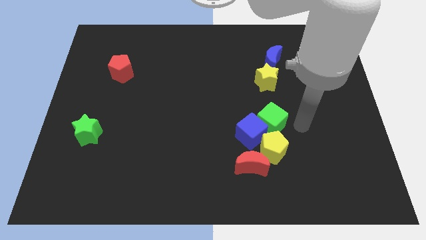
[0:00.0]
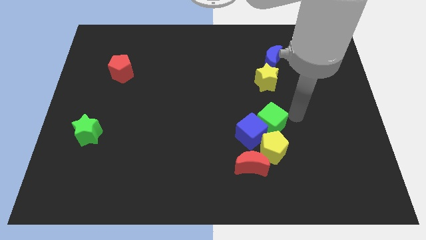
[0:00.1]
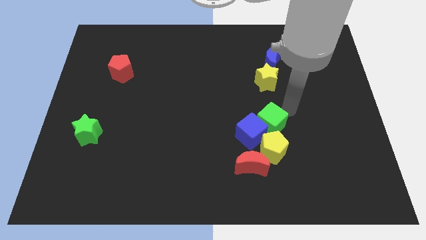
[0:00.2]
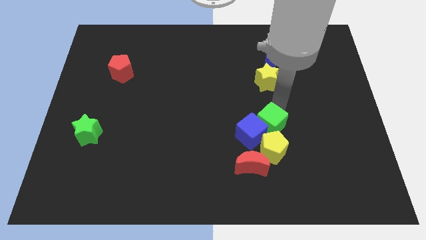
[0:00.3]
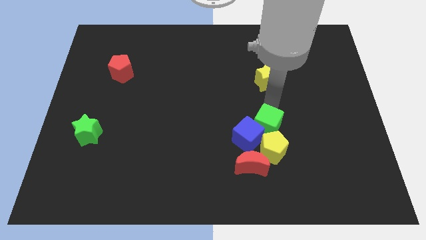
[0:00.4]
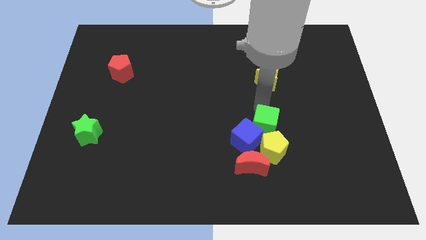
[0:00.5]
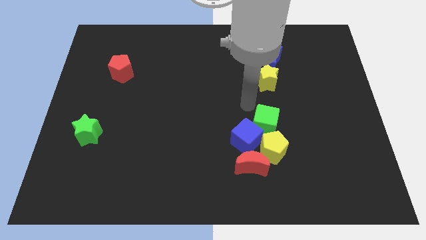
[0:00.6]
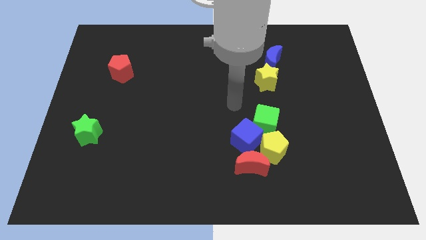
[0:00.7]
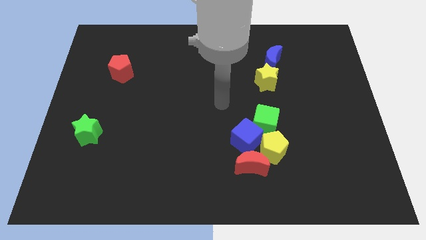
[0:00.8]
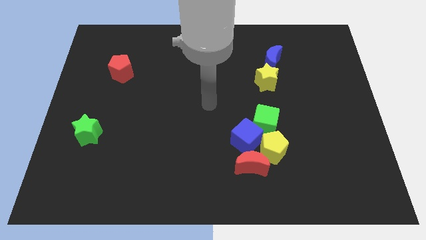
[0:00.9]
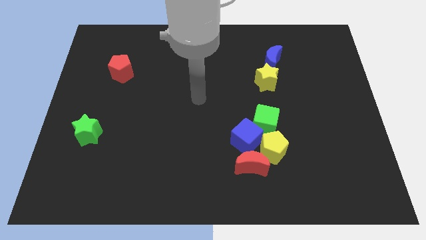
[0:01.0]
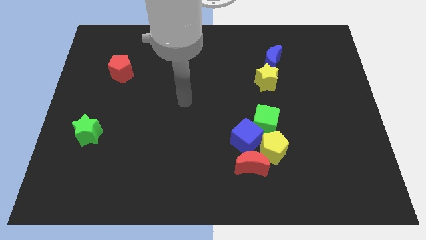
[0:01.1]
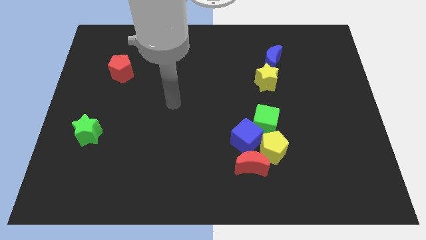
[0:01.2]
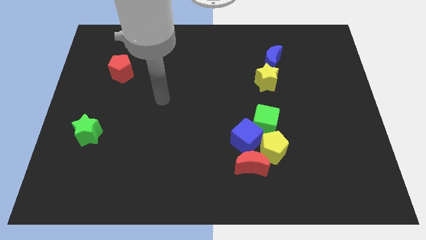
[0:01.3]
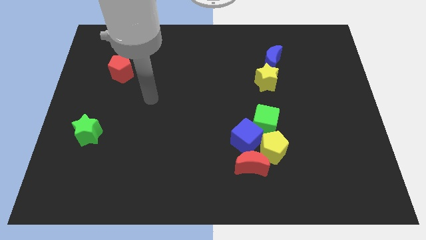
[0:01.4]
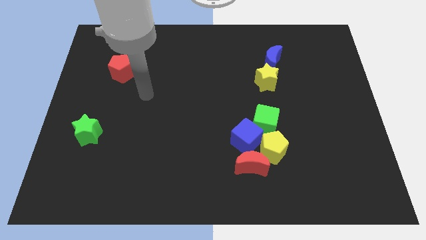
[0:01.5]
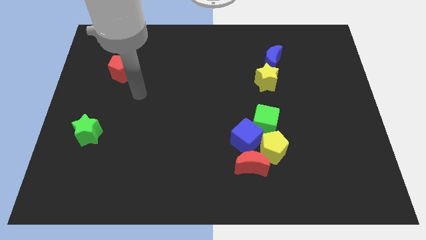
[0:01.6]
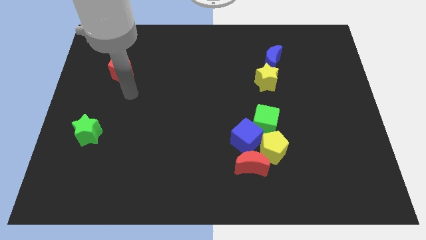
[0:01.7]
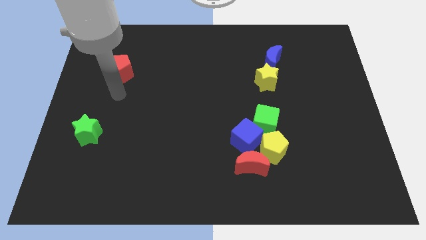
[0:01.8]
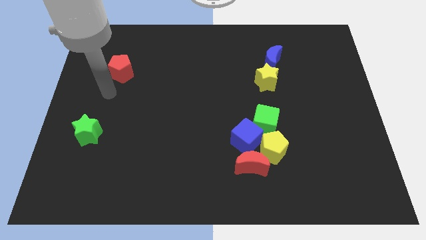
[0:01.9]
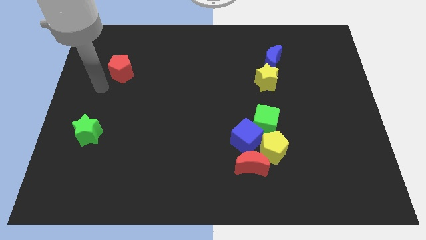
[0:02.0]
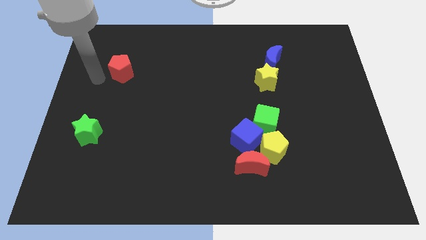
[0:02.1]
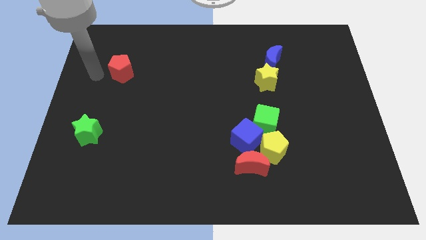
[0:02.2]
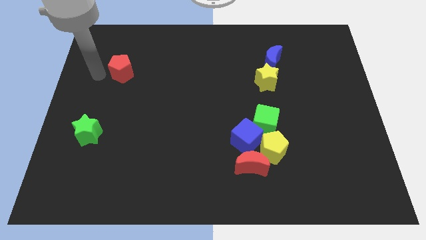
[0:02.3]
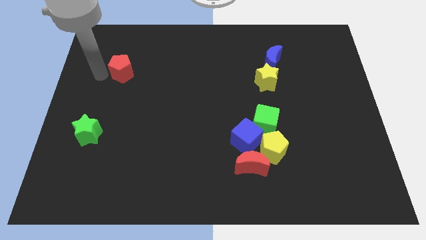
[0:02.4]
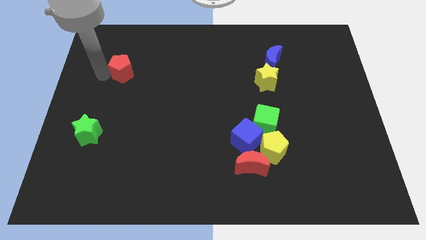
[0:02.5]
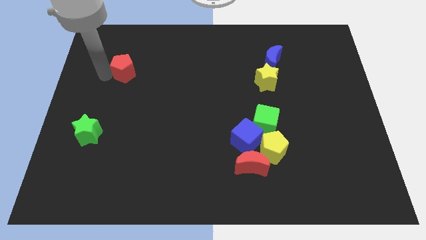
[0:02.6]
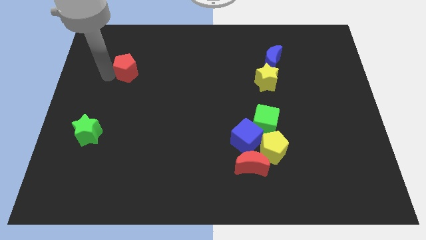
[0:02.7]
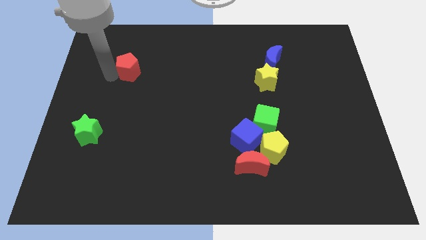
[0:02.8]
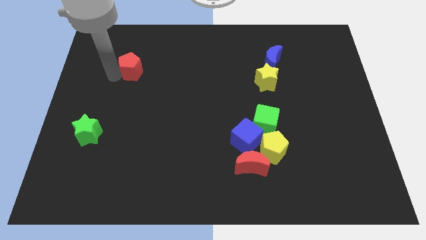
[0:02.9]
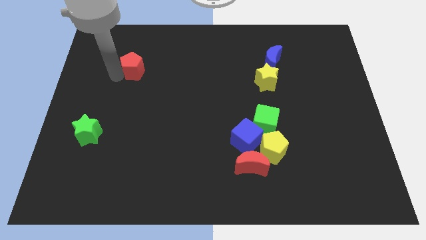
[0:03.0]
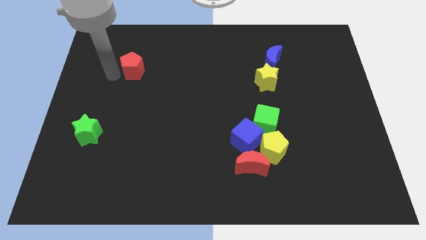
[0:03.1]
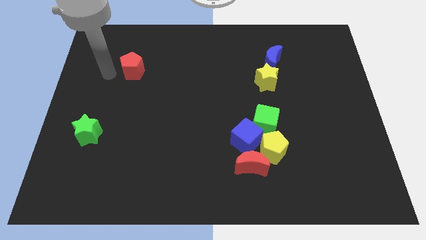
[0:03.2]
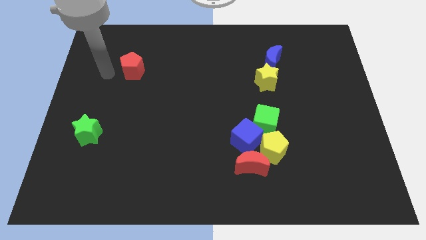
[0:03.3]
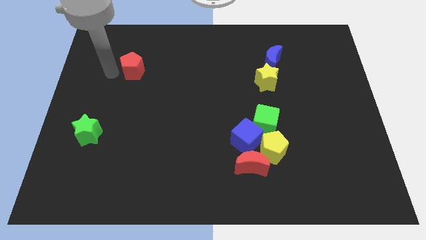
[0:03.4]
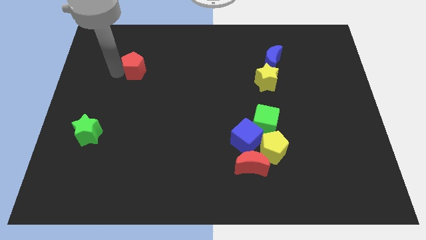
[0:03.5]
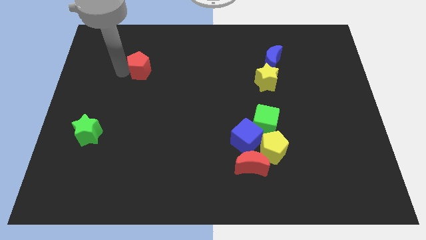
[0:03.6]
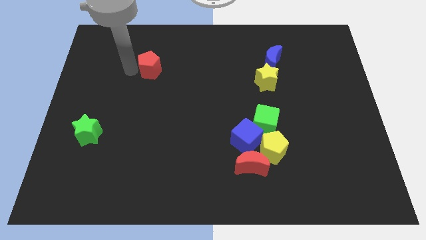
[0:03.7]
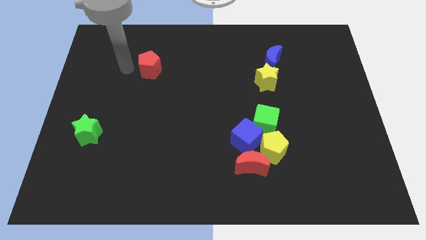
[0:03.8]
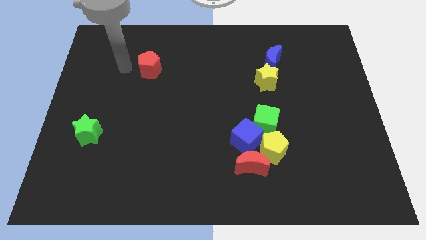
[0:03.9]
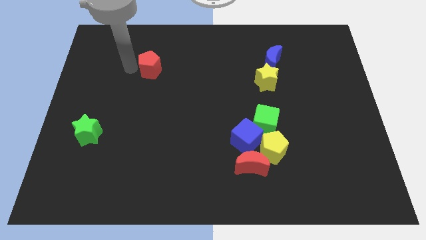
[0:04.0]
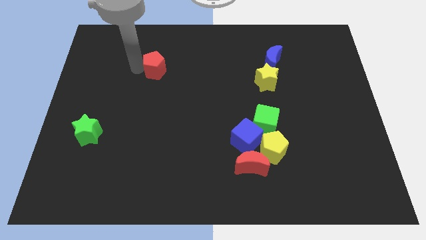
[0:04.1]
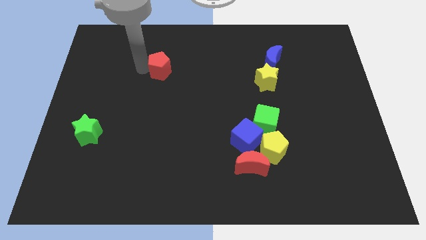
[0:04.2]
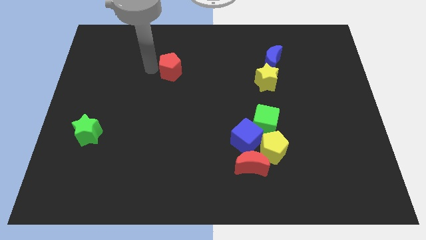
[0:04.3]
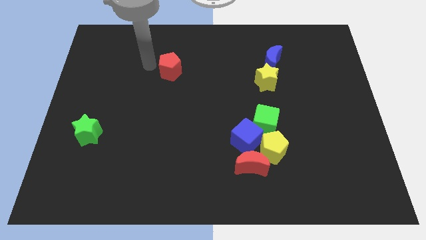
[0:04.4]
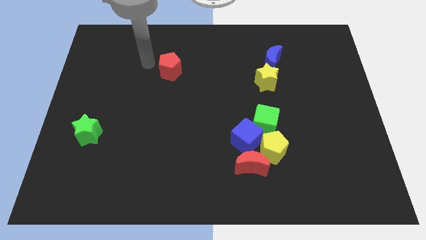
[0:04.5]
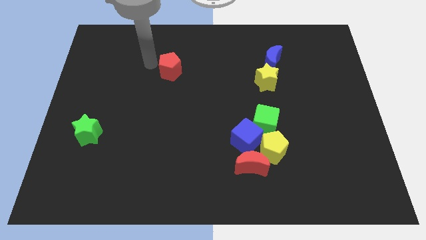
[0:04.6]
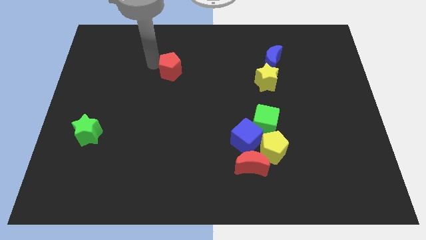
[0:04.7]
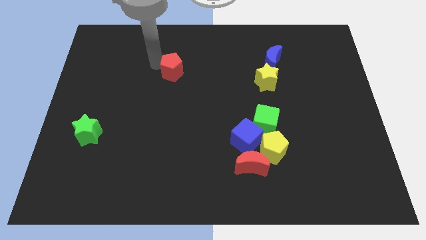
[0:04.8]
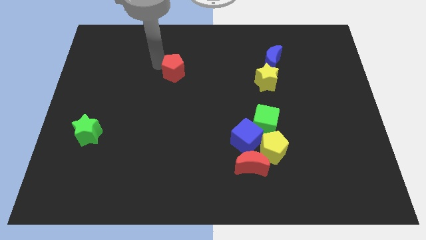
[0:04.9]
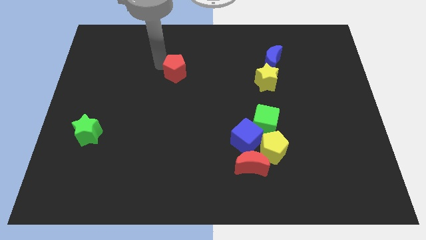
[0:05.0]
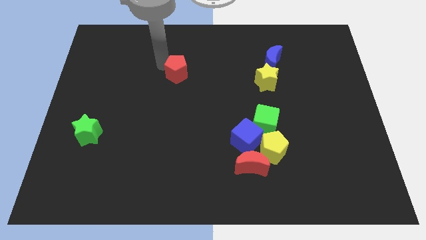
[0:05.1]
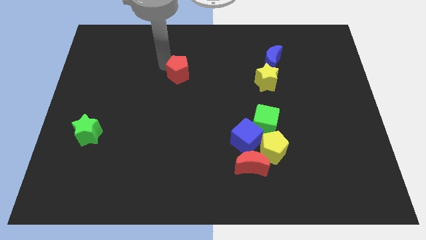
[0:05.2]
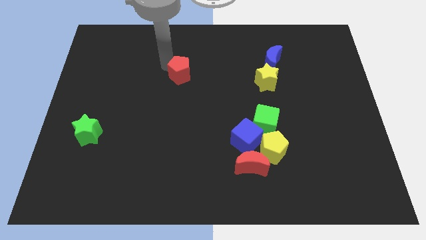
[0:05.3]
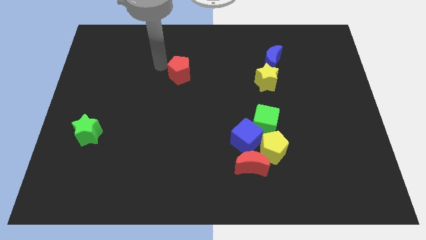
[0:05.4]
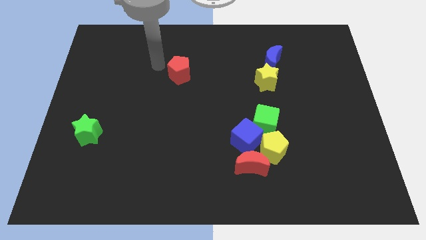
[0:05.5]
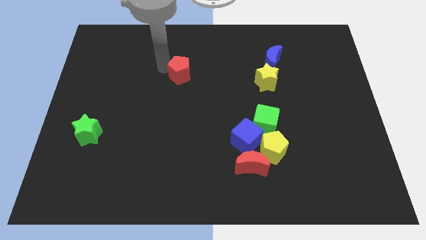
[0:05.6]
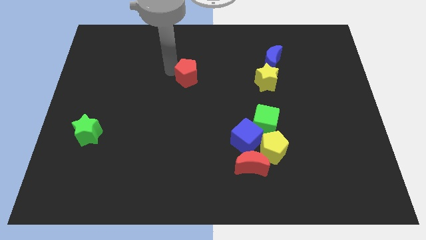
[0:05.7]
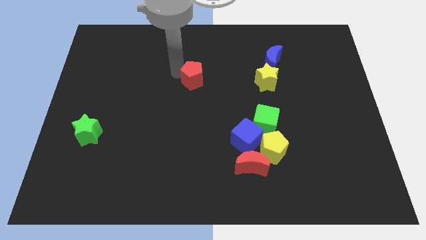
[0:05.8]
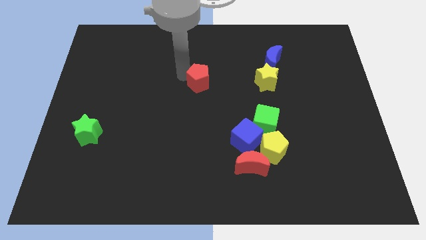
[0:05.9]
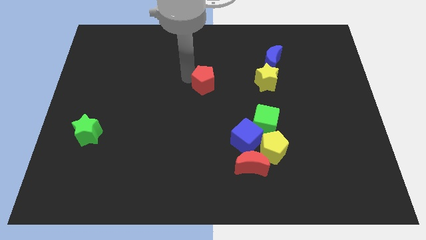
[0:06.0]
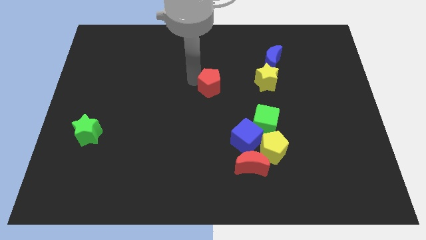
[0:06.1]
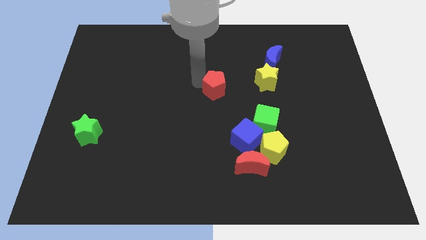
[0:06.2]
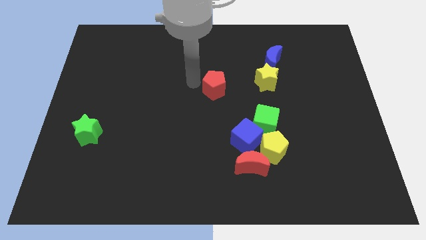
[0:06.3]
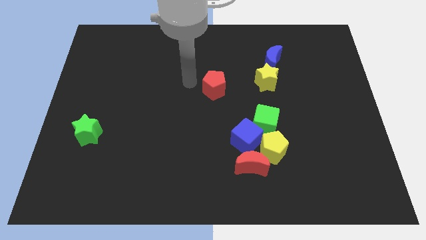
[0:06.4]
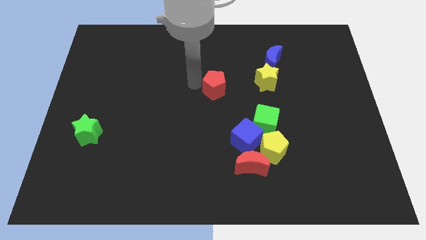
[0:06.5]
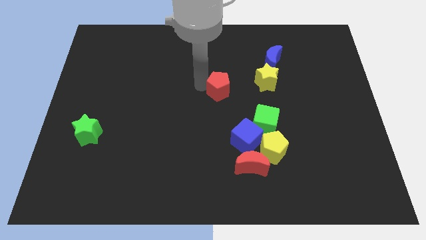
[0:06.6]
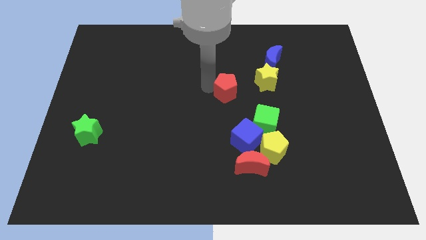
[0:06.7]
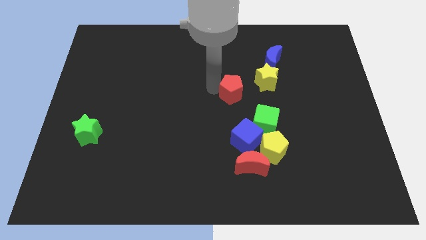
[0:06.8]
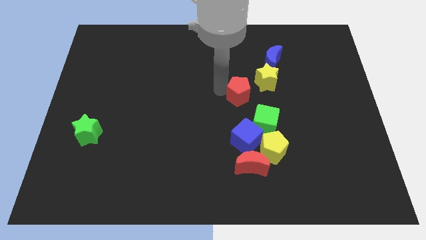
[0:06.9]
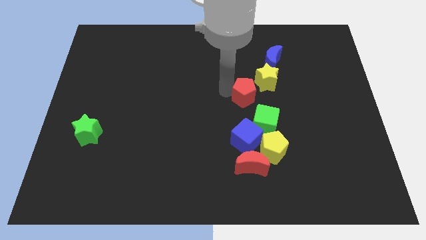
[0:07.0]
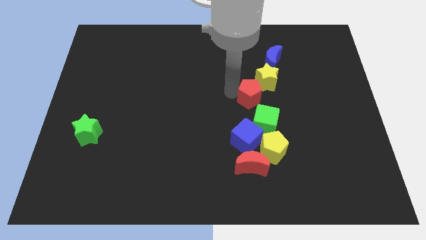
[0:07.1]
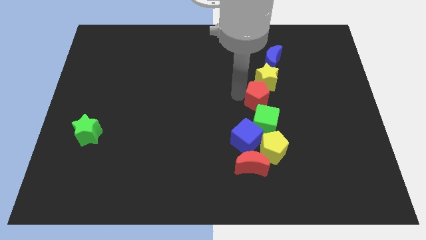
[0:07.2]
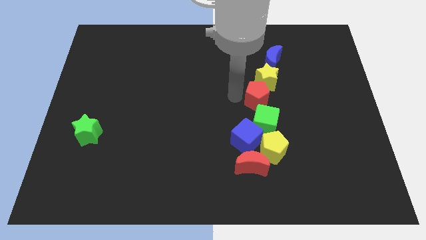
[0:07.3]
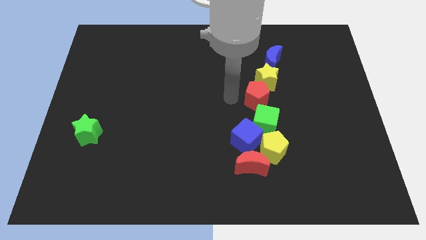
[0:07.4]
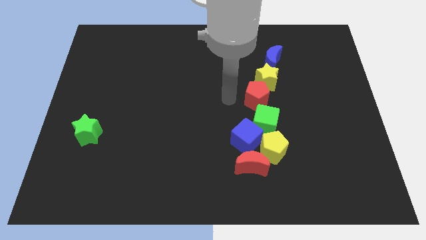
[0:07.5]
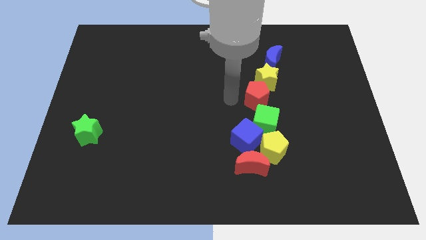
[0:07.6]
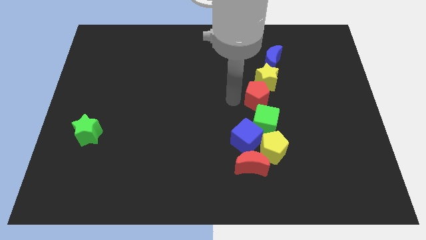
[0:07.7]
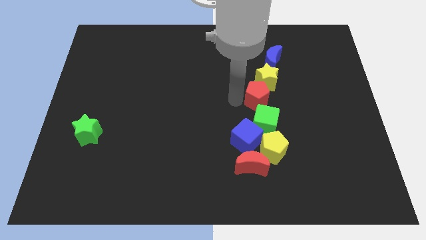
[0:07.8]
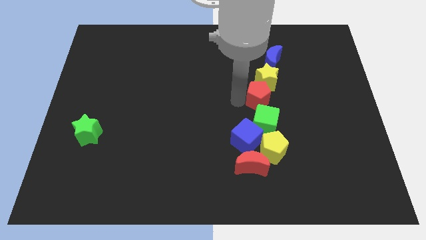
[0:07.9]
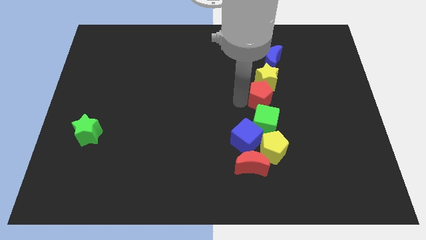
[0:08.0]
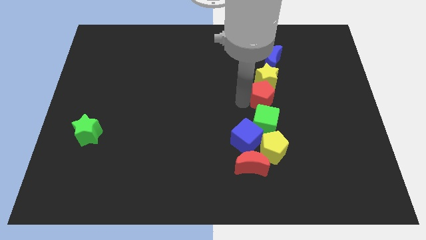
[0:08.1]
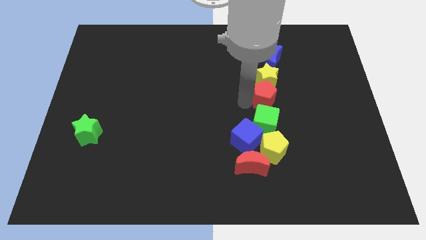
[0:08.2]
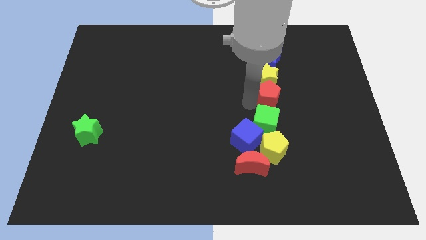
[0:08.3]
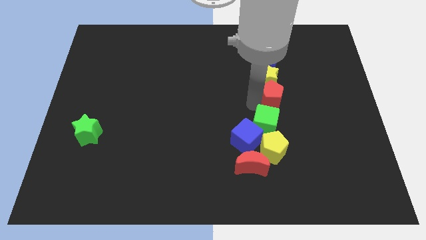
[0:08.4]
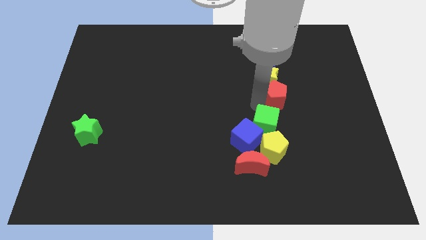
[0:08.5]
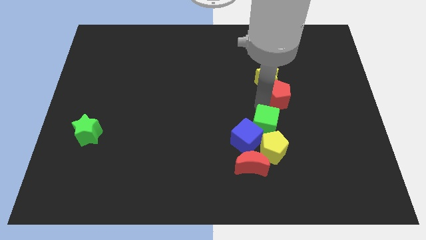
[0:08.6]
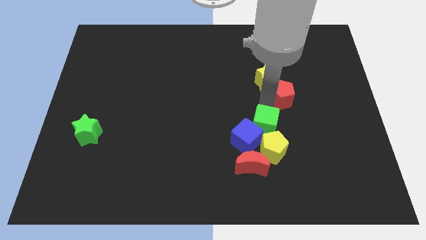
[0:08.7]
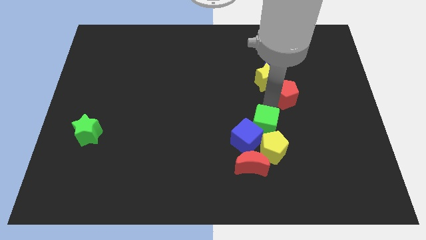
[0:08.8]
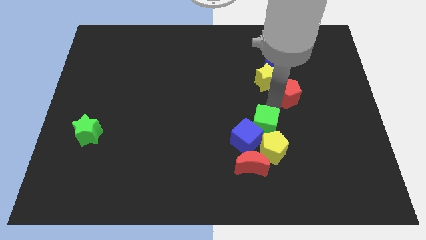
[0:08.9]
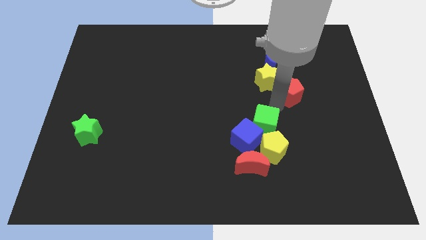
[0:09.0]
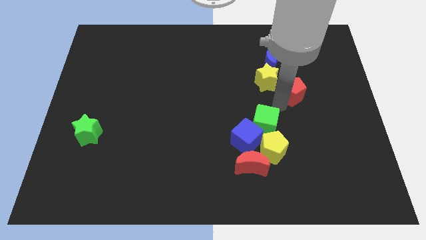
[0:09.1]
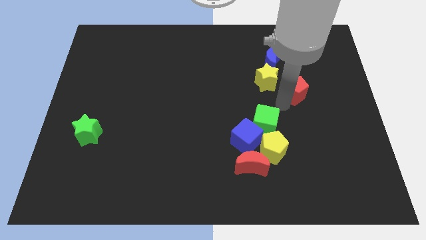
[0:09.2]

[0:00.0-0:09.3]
slide the red pentagon diagonally down and to the right of the blue moon
